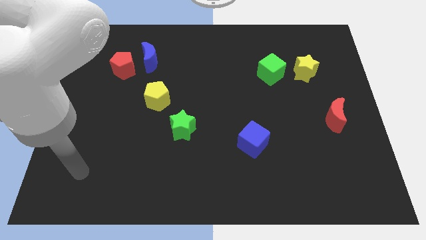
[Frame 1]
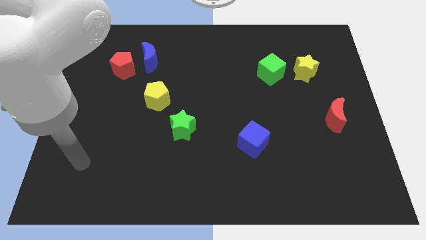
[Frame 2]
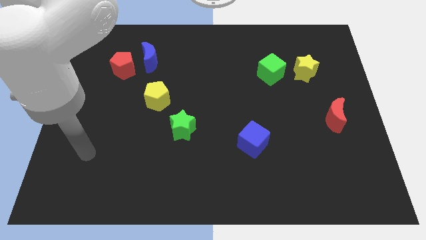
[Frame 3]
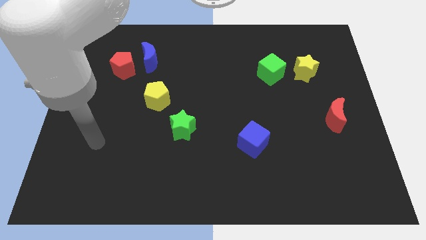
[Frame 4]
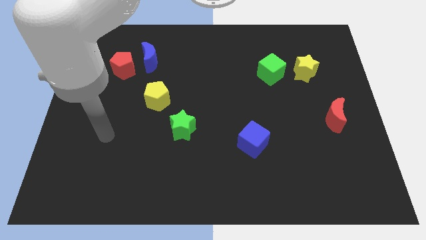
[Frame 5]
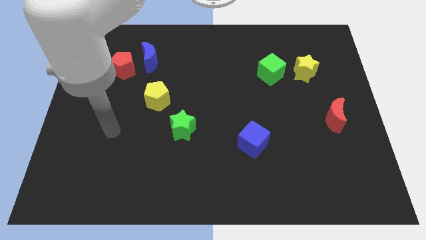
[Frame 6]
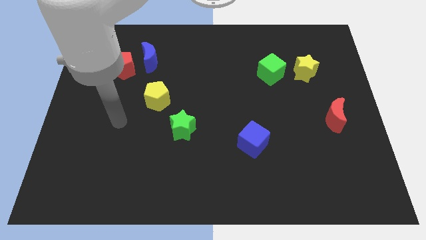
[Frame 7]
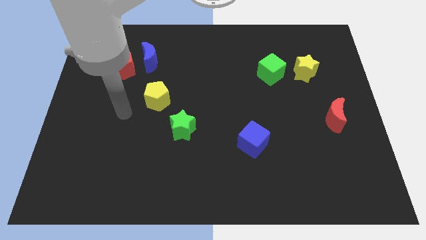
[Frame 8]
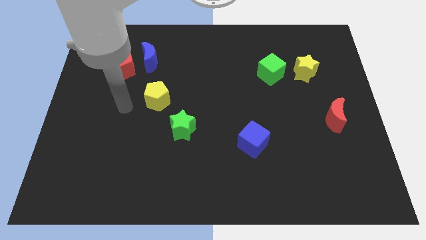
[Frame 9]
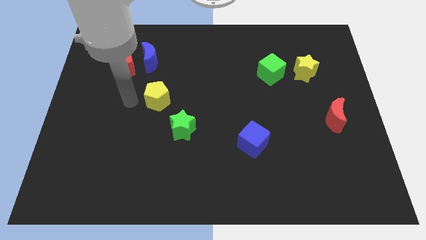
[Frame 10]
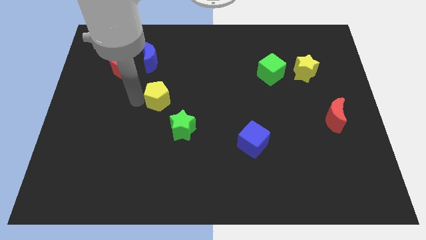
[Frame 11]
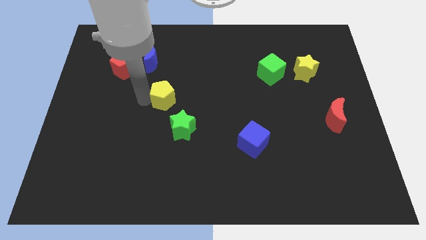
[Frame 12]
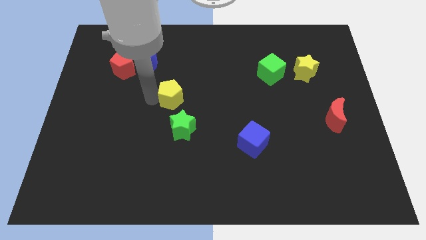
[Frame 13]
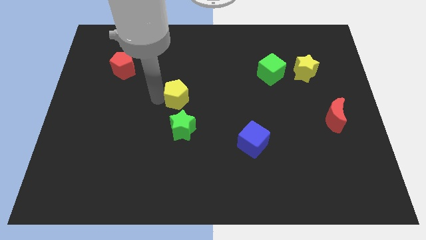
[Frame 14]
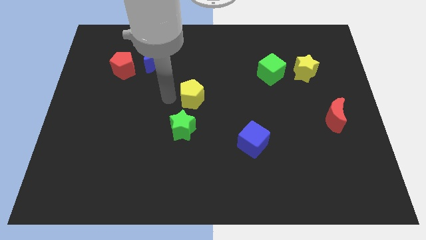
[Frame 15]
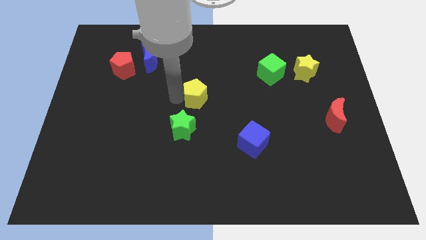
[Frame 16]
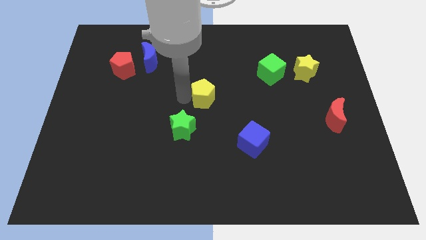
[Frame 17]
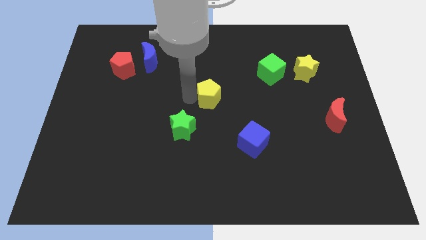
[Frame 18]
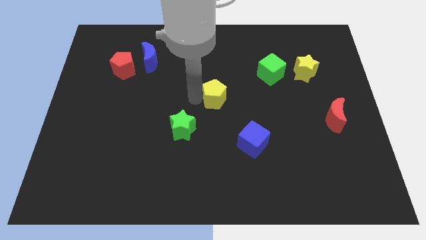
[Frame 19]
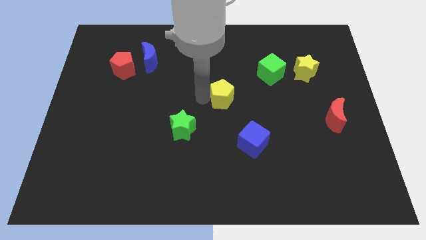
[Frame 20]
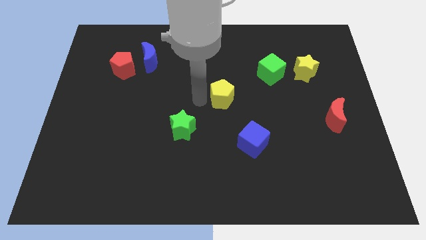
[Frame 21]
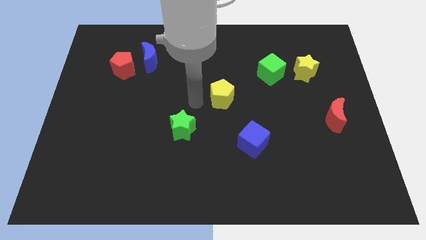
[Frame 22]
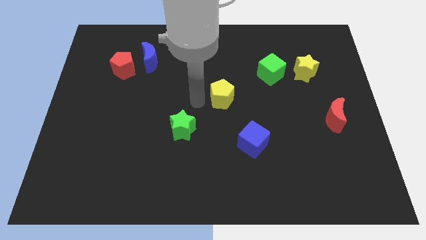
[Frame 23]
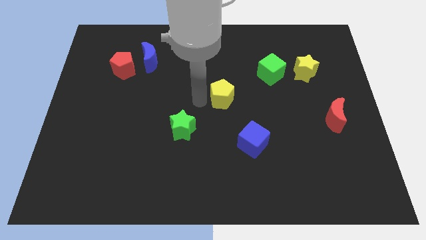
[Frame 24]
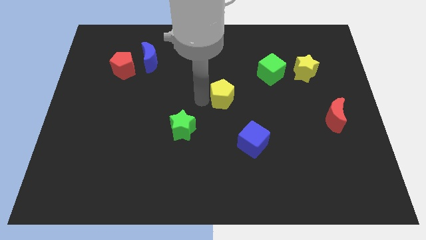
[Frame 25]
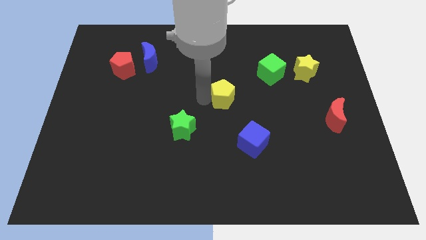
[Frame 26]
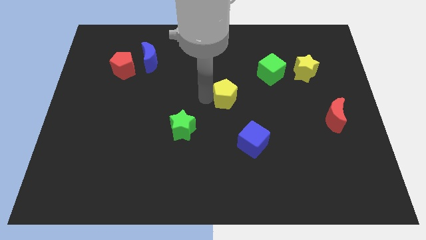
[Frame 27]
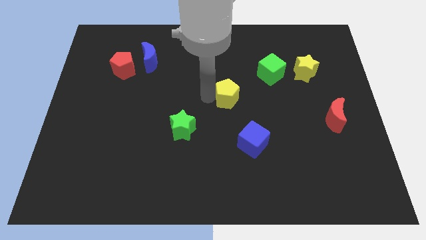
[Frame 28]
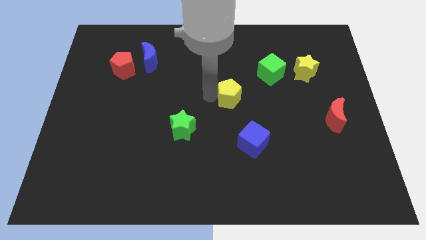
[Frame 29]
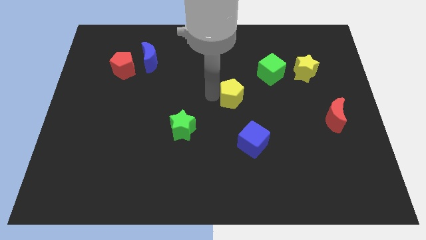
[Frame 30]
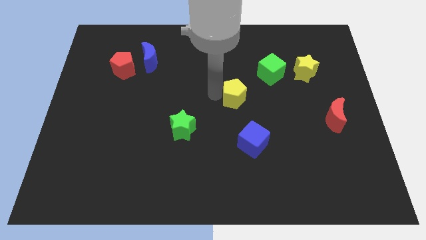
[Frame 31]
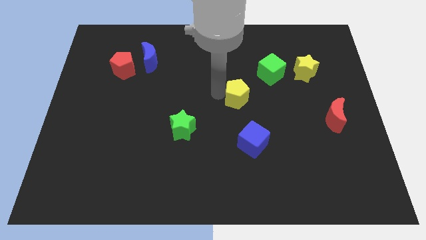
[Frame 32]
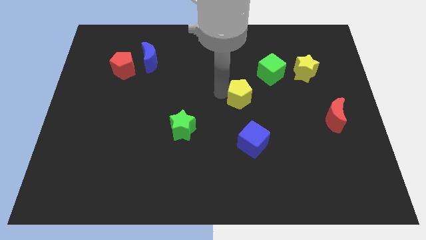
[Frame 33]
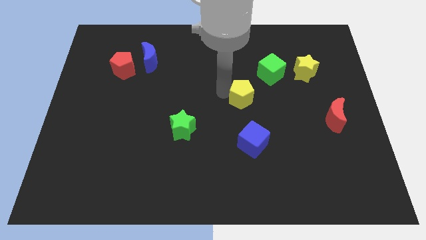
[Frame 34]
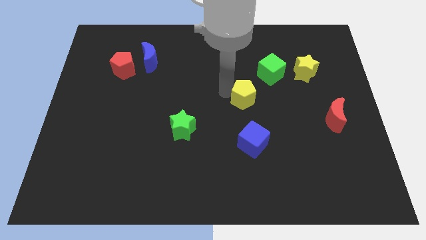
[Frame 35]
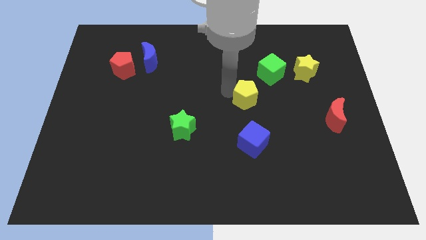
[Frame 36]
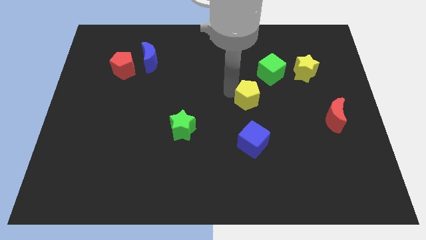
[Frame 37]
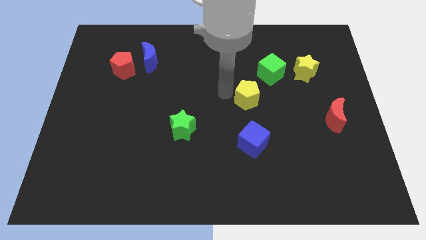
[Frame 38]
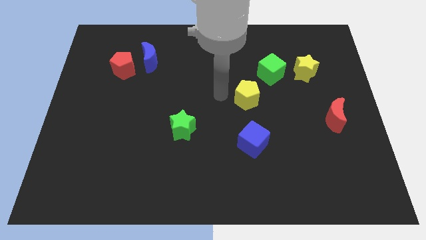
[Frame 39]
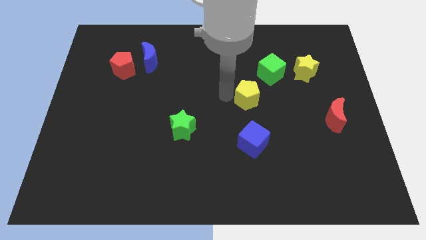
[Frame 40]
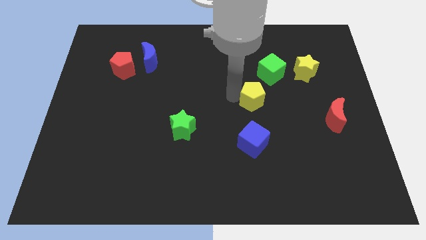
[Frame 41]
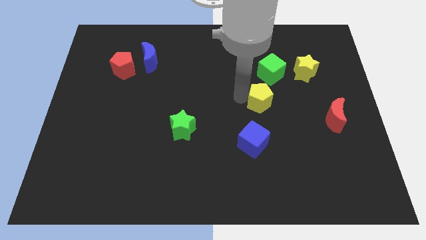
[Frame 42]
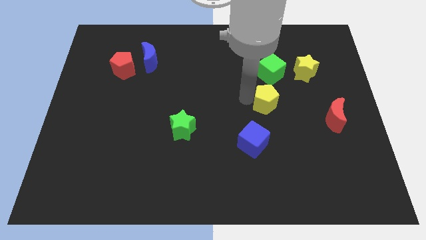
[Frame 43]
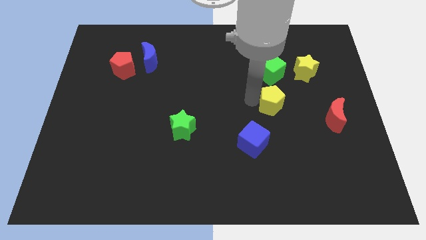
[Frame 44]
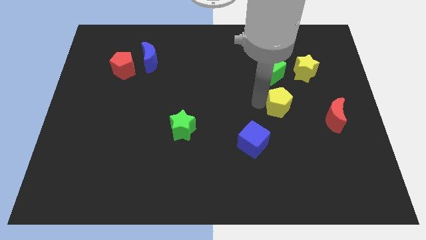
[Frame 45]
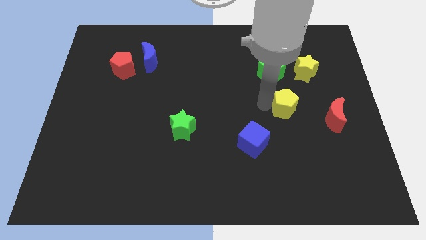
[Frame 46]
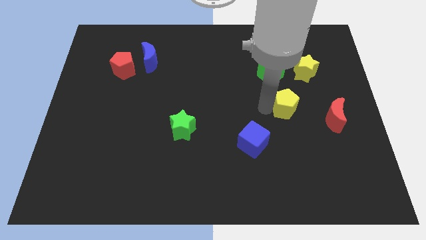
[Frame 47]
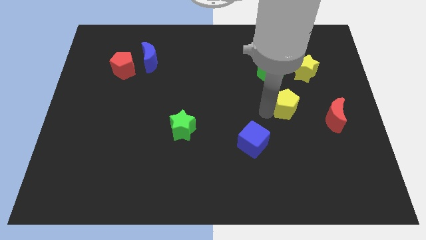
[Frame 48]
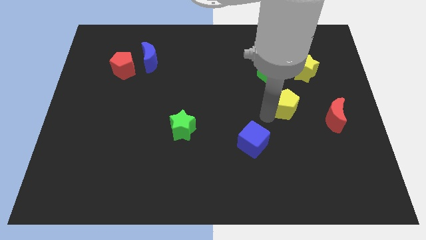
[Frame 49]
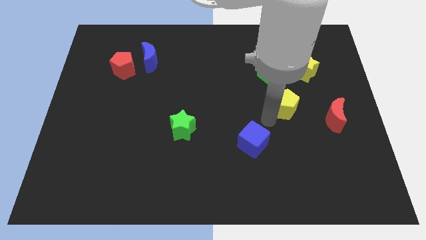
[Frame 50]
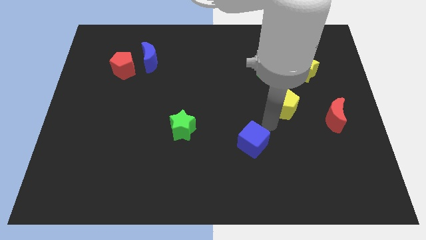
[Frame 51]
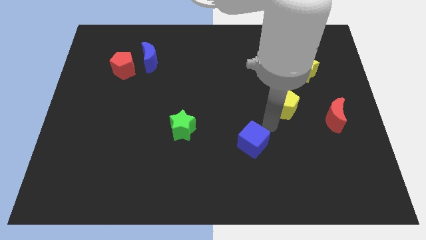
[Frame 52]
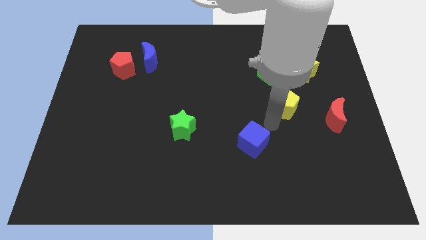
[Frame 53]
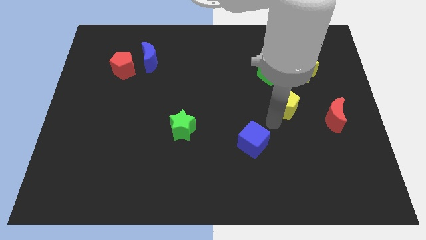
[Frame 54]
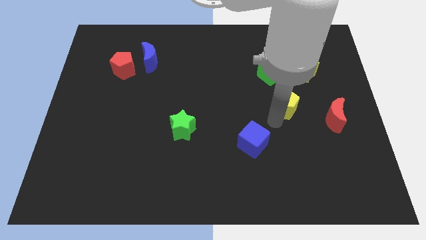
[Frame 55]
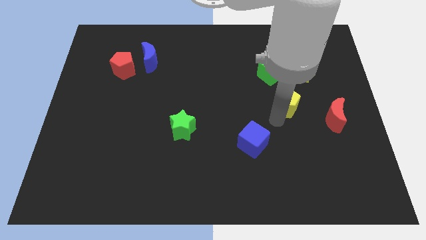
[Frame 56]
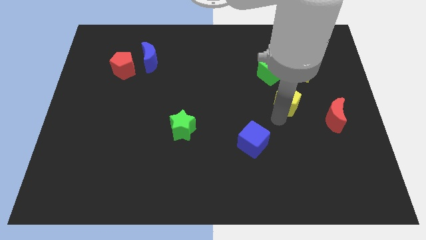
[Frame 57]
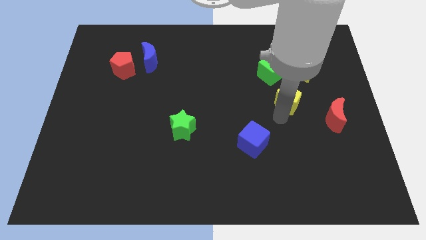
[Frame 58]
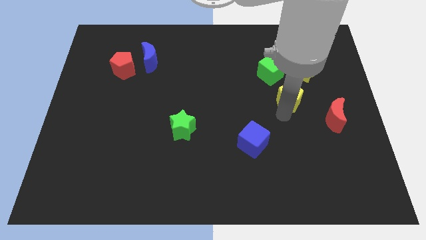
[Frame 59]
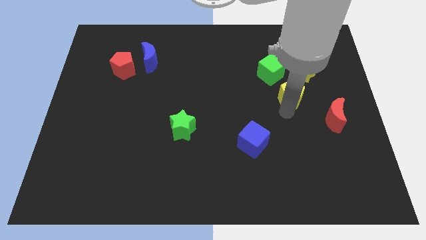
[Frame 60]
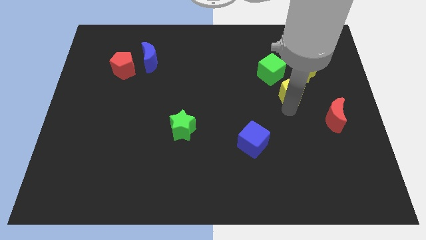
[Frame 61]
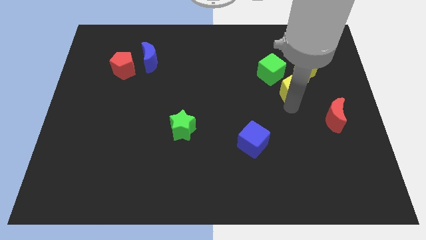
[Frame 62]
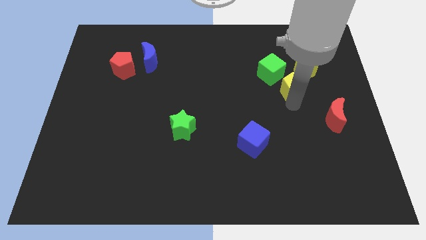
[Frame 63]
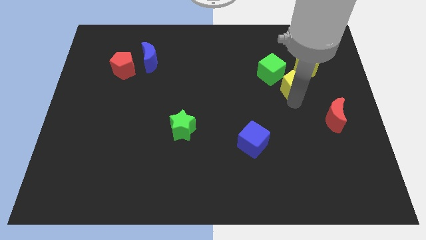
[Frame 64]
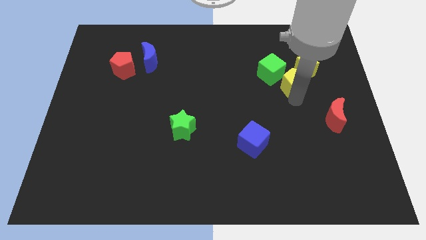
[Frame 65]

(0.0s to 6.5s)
put the yellow pentagon next to the yellow star

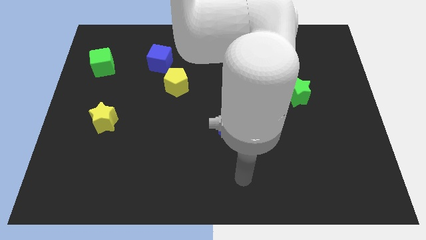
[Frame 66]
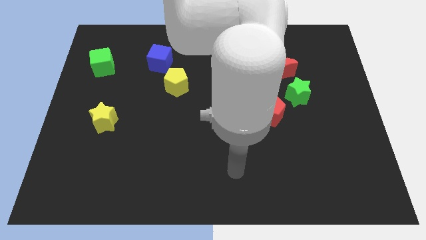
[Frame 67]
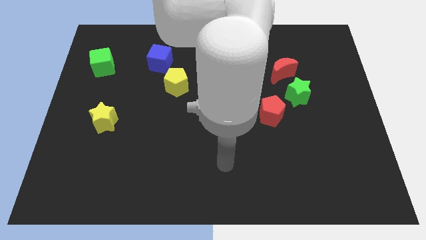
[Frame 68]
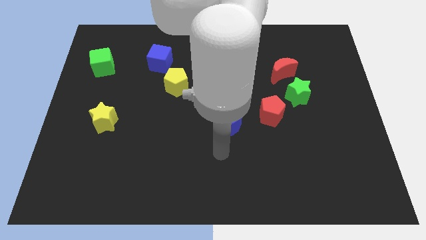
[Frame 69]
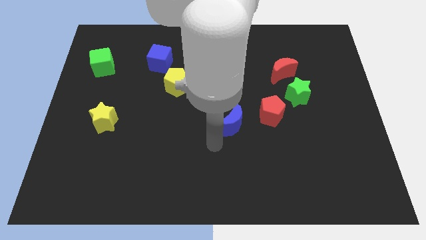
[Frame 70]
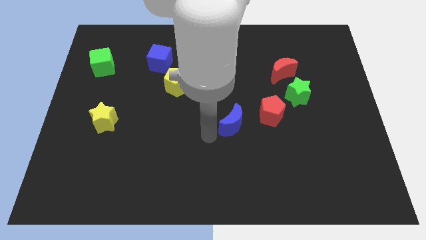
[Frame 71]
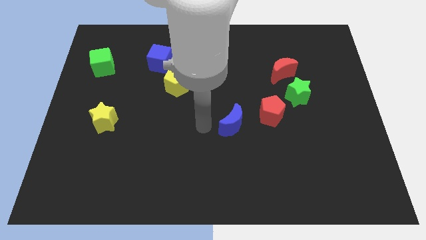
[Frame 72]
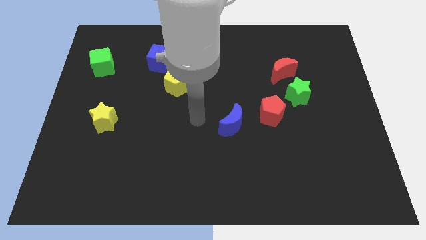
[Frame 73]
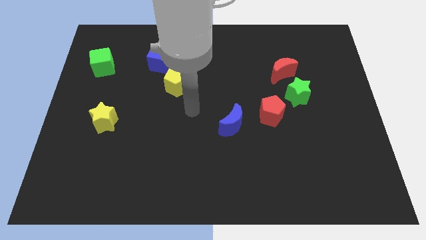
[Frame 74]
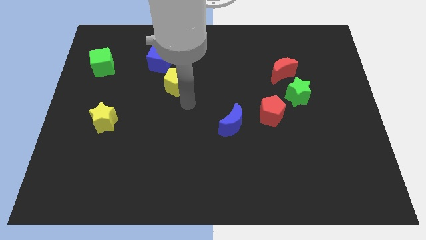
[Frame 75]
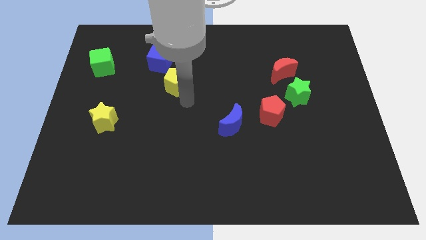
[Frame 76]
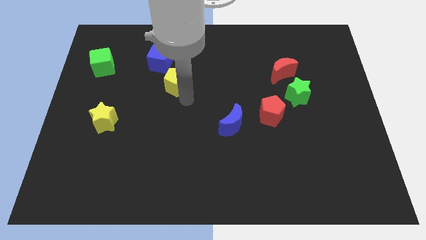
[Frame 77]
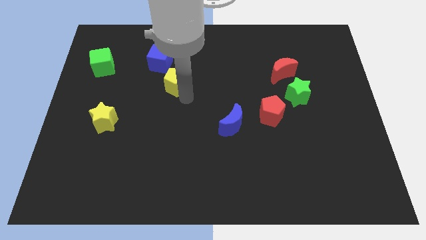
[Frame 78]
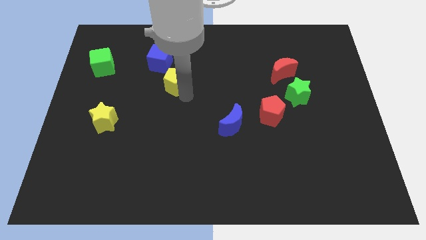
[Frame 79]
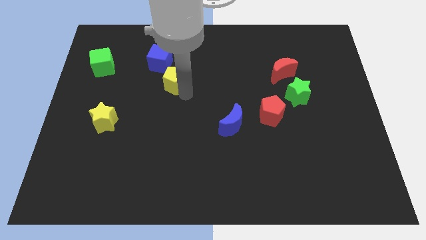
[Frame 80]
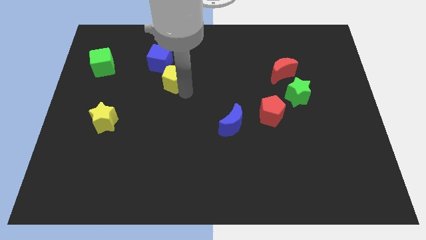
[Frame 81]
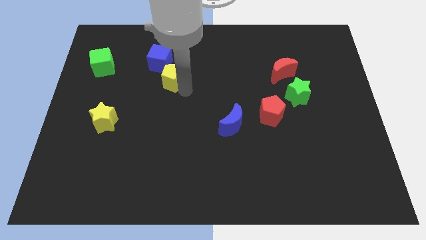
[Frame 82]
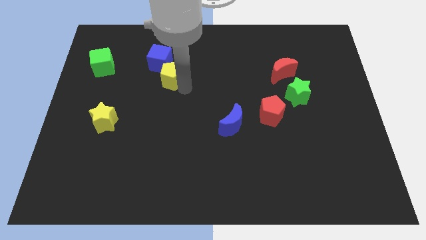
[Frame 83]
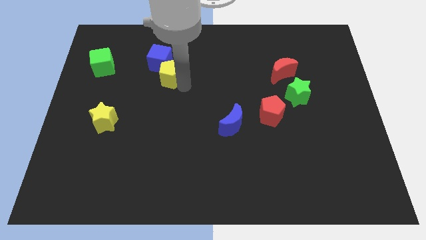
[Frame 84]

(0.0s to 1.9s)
slide the yellow pentagon towards the blue cube
